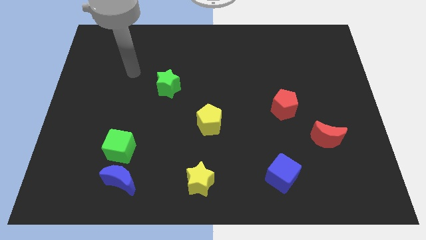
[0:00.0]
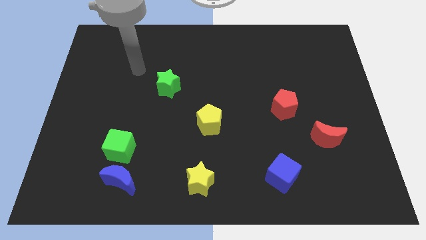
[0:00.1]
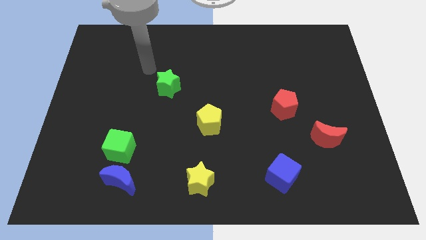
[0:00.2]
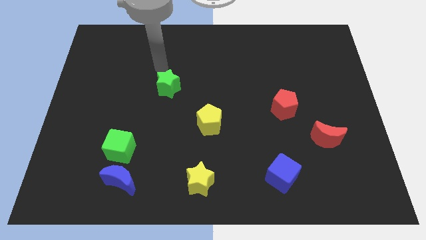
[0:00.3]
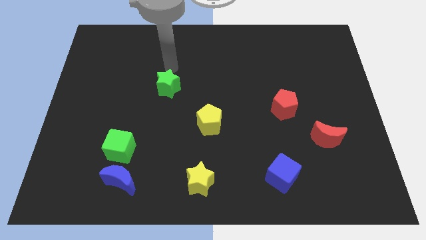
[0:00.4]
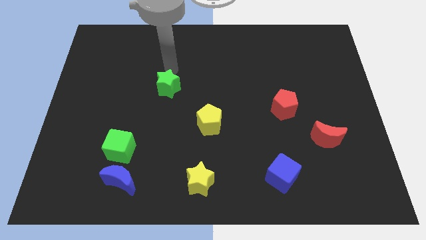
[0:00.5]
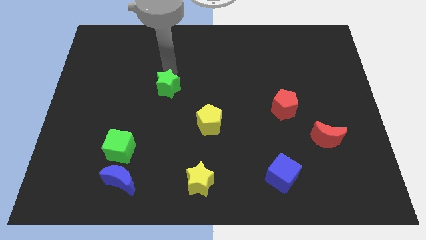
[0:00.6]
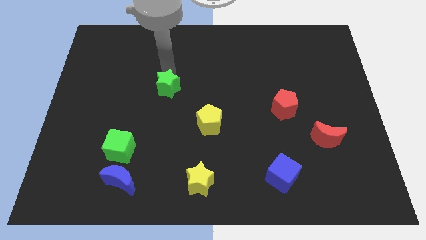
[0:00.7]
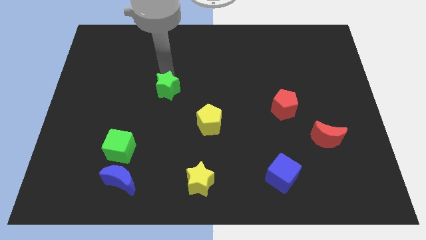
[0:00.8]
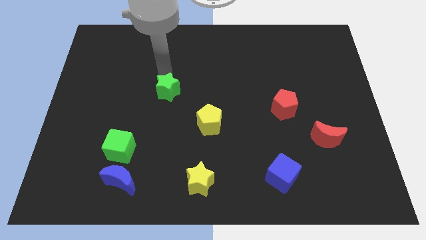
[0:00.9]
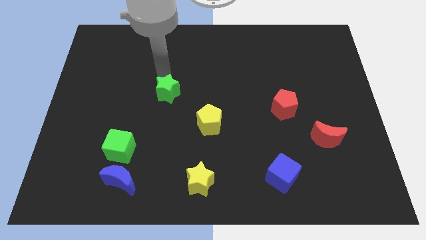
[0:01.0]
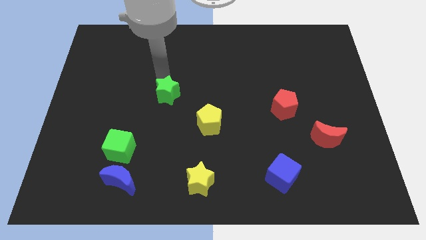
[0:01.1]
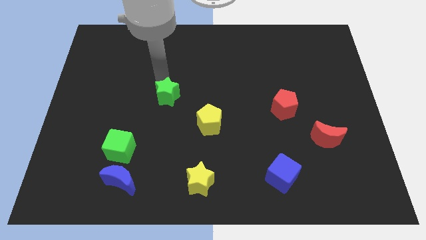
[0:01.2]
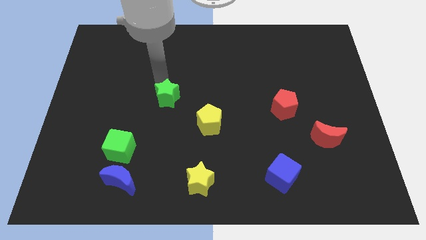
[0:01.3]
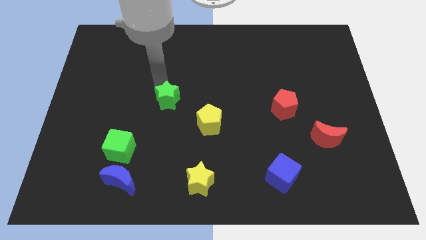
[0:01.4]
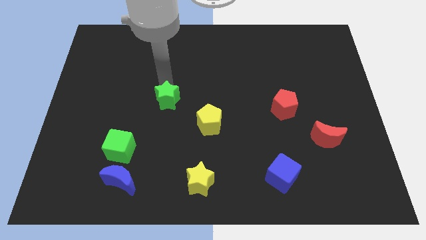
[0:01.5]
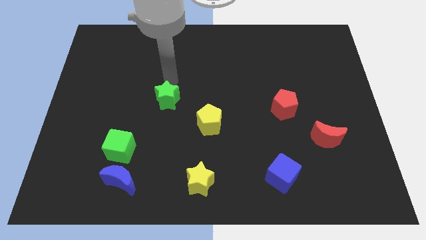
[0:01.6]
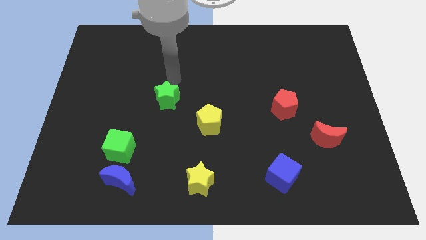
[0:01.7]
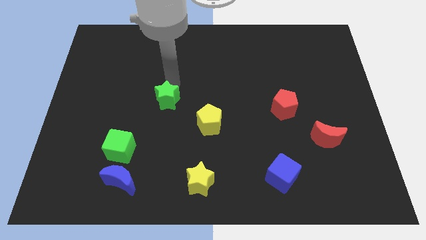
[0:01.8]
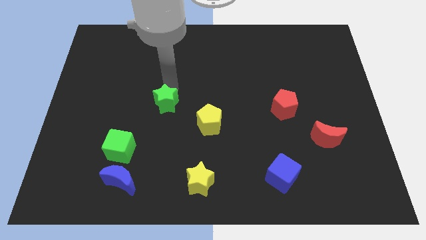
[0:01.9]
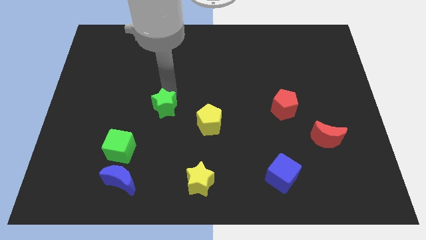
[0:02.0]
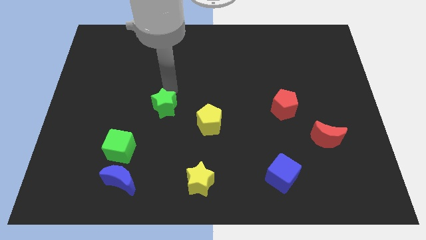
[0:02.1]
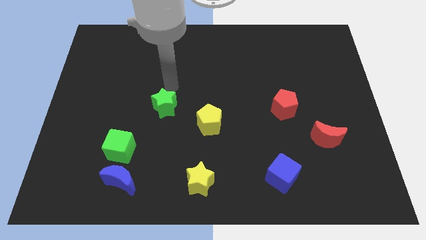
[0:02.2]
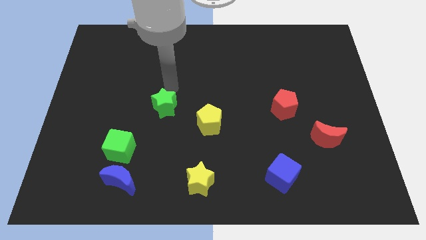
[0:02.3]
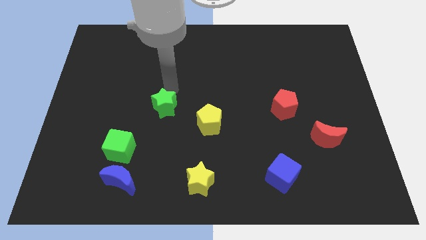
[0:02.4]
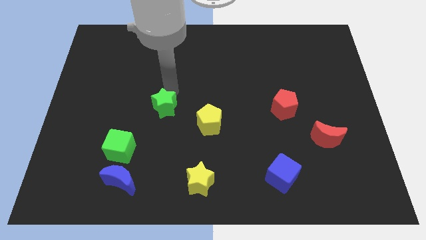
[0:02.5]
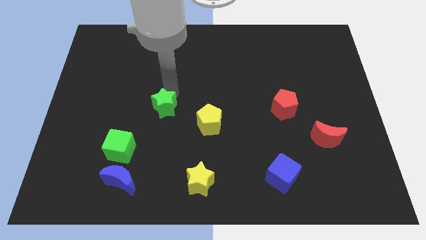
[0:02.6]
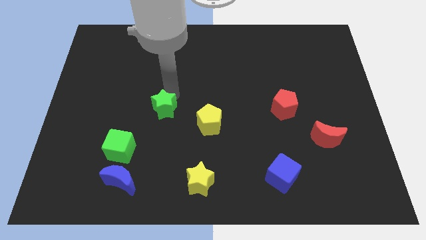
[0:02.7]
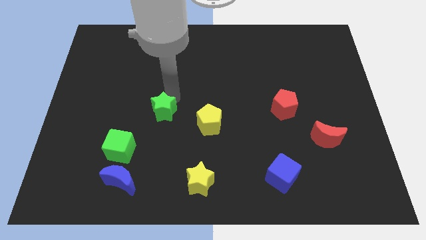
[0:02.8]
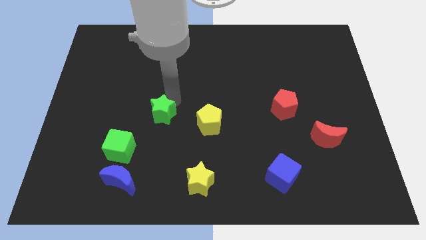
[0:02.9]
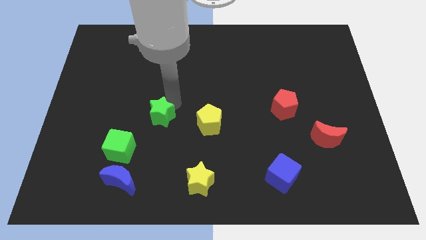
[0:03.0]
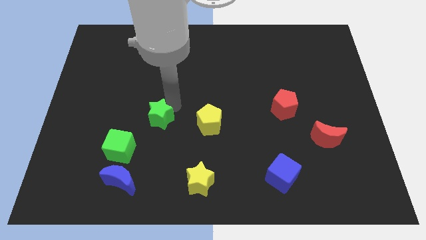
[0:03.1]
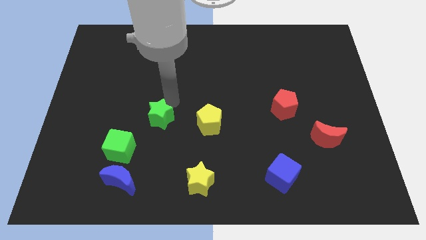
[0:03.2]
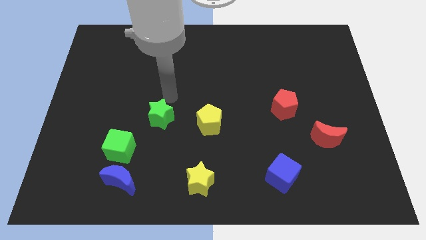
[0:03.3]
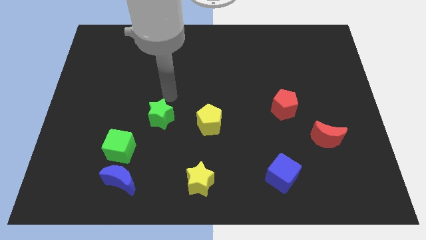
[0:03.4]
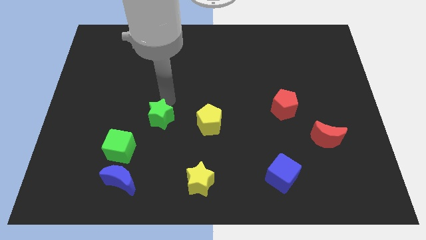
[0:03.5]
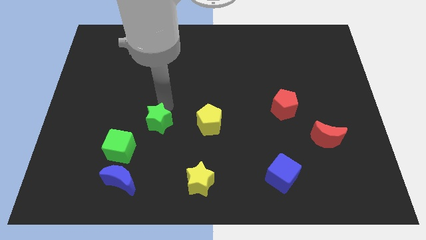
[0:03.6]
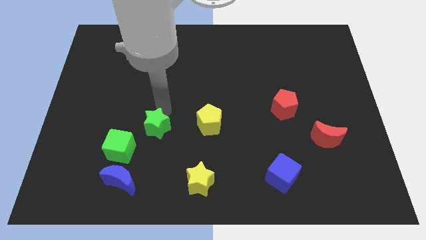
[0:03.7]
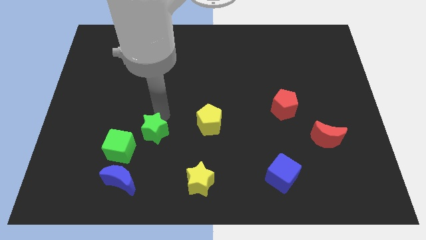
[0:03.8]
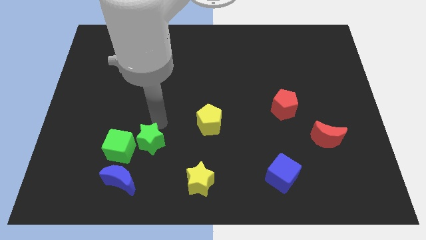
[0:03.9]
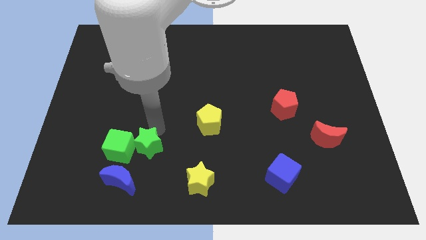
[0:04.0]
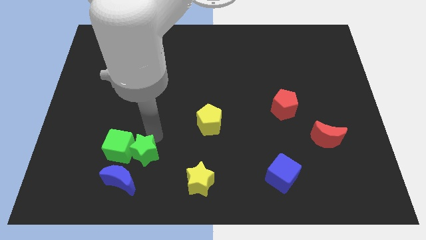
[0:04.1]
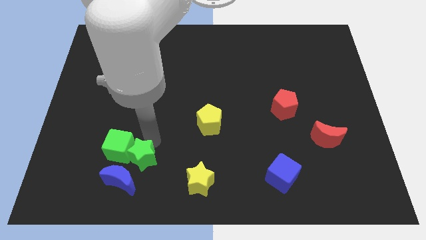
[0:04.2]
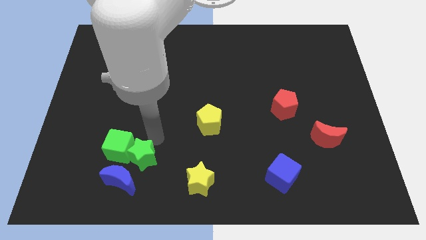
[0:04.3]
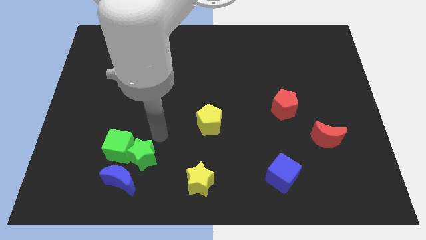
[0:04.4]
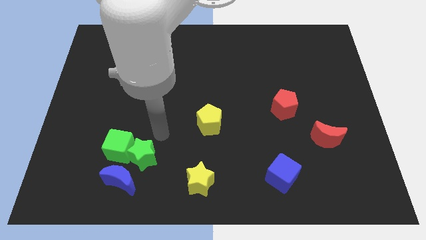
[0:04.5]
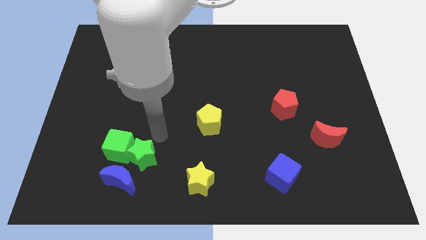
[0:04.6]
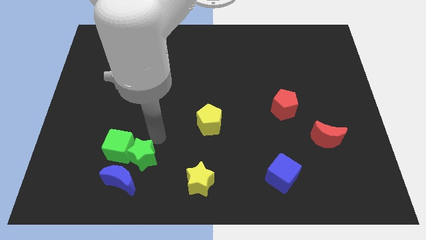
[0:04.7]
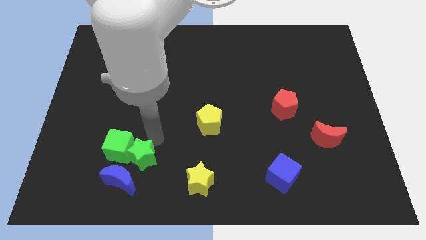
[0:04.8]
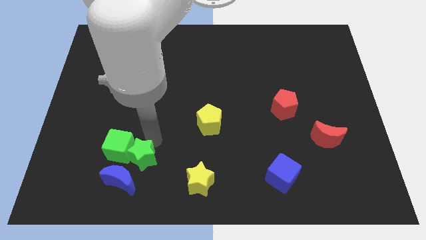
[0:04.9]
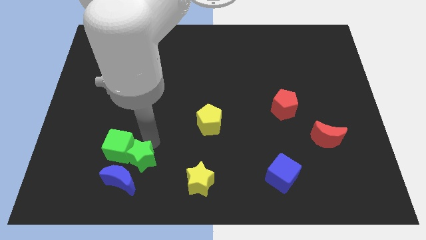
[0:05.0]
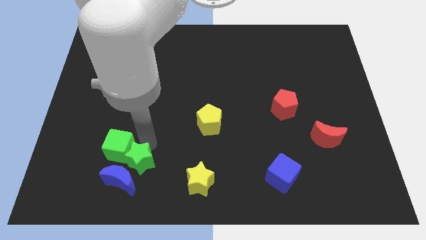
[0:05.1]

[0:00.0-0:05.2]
push the green star close to the blue moon
